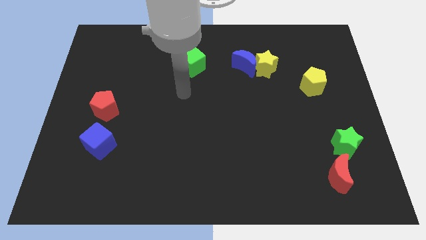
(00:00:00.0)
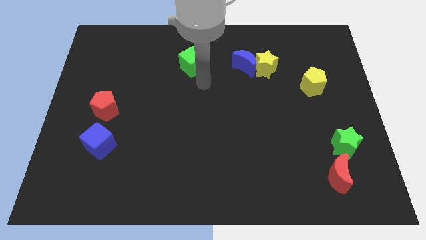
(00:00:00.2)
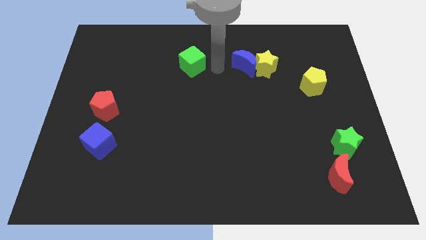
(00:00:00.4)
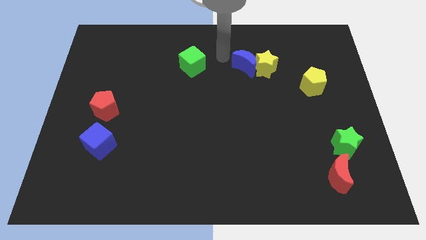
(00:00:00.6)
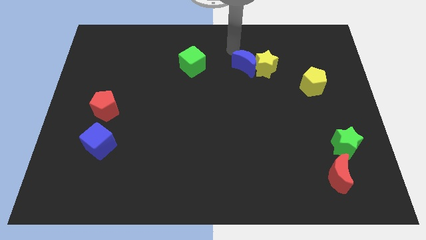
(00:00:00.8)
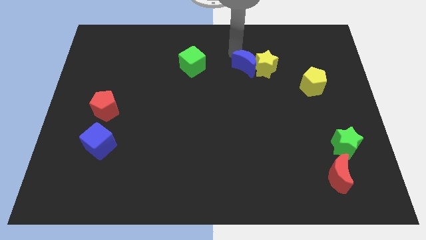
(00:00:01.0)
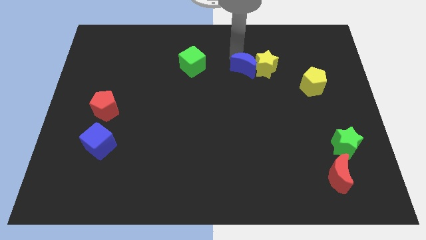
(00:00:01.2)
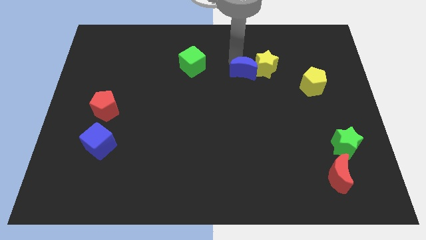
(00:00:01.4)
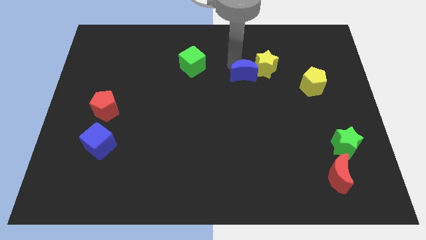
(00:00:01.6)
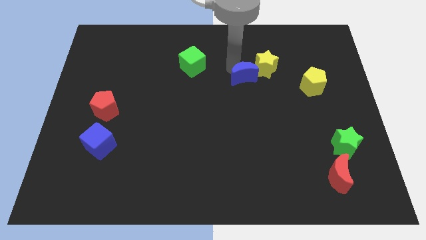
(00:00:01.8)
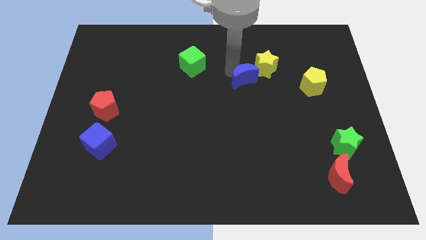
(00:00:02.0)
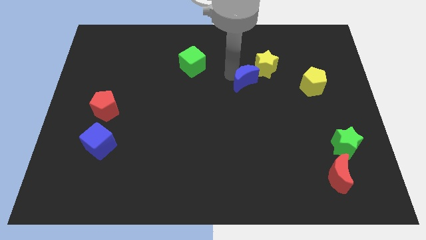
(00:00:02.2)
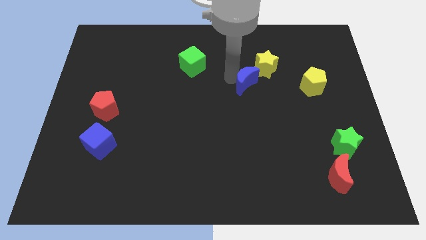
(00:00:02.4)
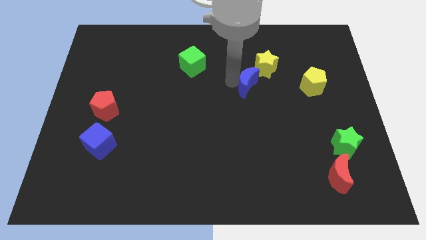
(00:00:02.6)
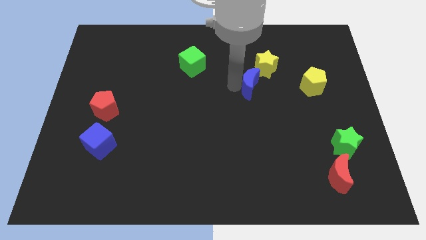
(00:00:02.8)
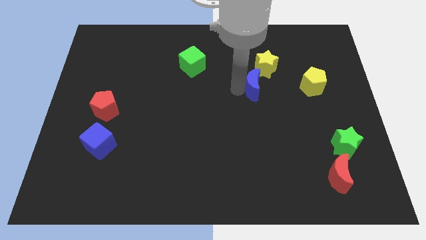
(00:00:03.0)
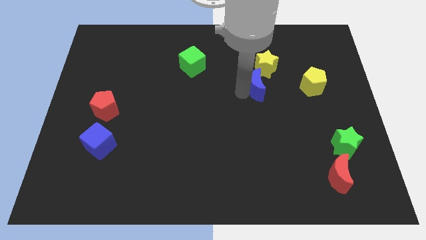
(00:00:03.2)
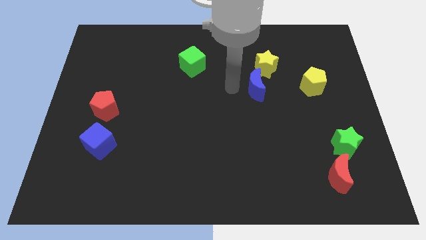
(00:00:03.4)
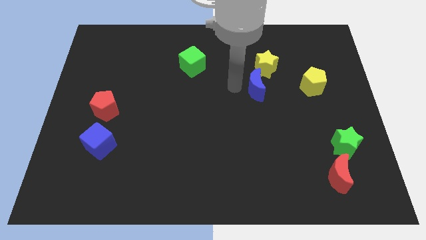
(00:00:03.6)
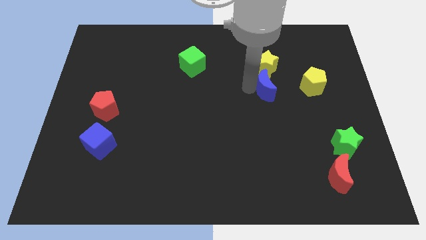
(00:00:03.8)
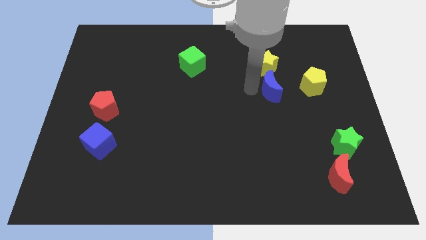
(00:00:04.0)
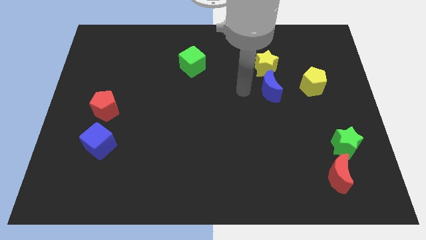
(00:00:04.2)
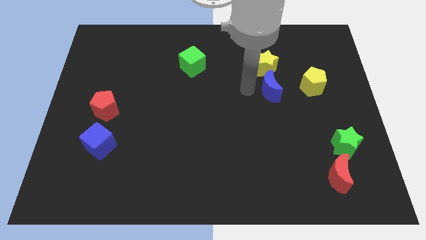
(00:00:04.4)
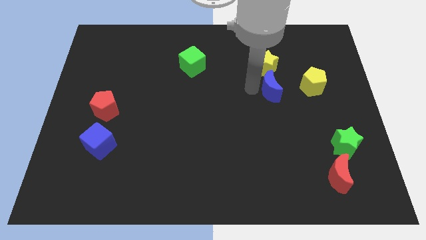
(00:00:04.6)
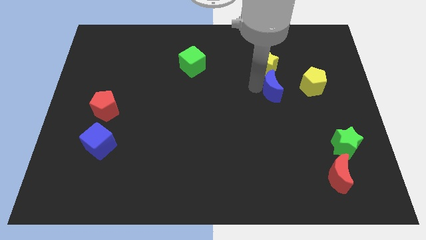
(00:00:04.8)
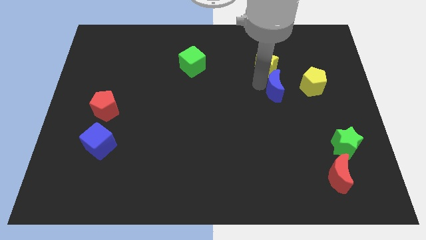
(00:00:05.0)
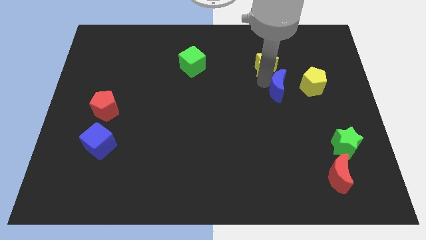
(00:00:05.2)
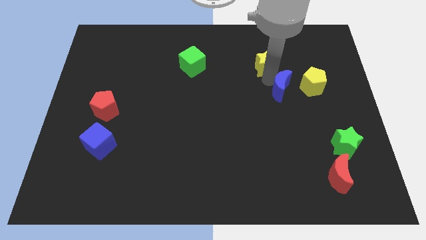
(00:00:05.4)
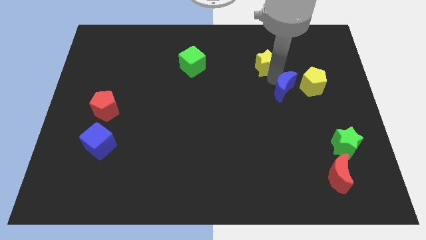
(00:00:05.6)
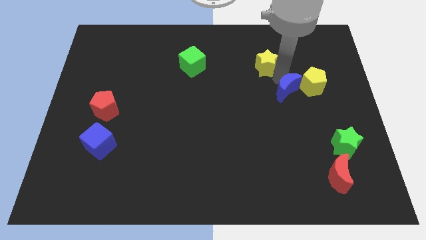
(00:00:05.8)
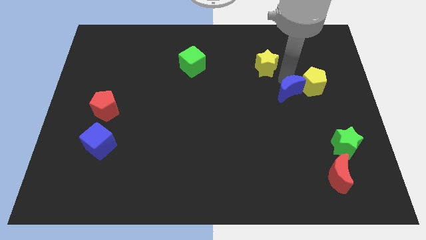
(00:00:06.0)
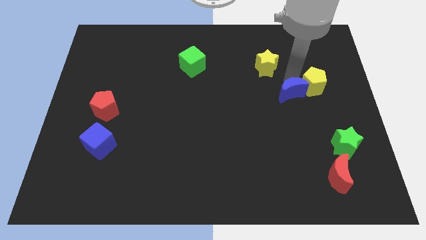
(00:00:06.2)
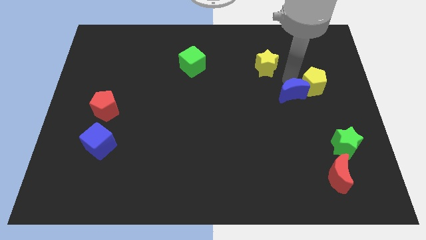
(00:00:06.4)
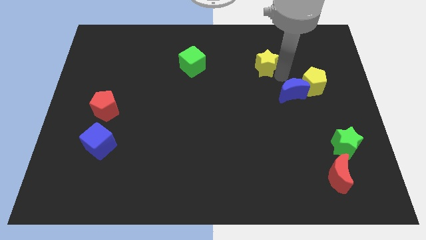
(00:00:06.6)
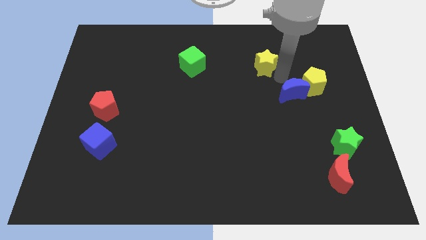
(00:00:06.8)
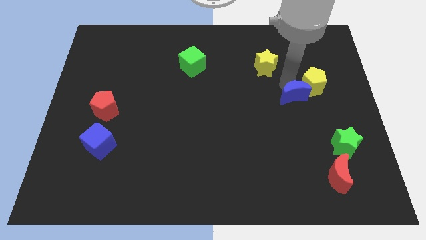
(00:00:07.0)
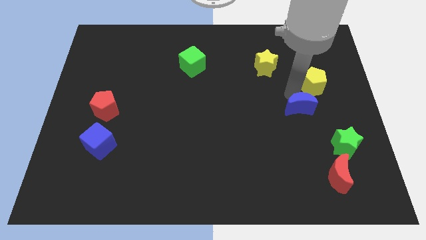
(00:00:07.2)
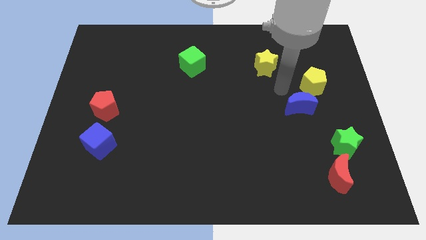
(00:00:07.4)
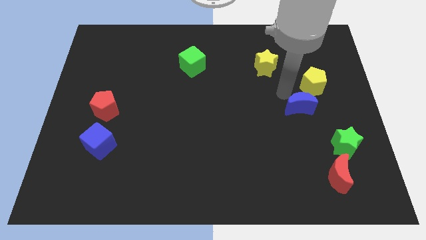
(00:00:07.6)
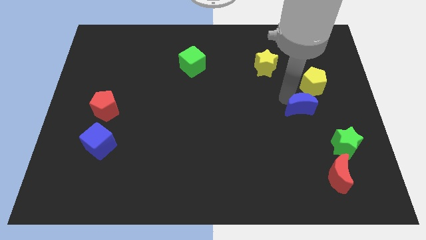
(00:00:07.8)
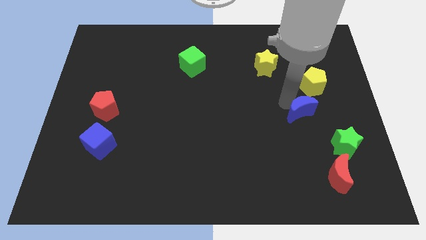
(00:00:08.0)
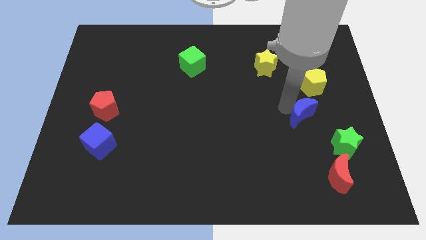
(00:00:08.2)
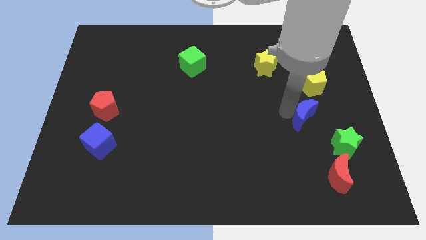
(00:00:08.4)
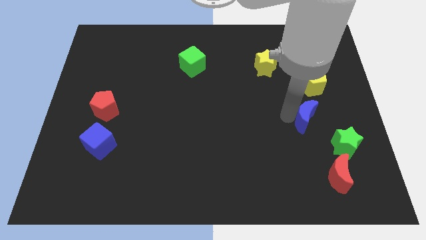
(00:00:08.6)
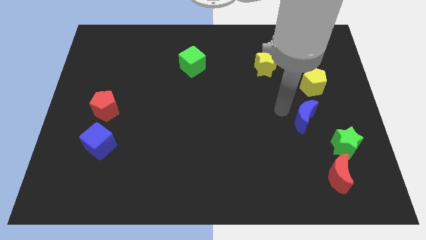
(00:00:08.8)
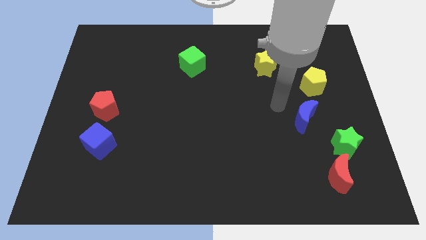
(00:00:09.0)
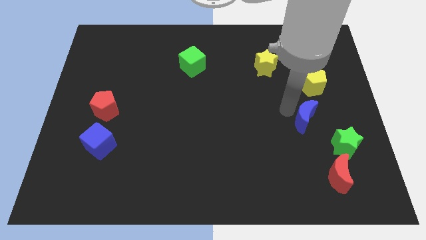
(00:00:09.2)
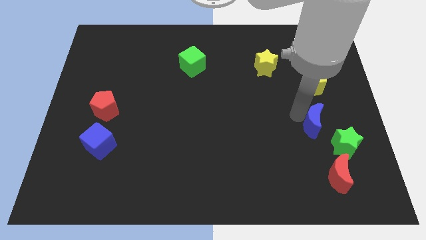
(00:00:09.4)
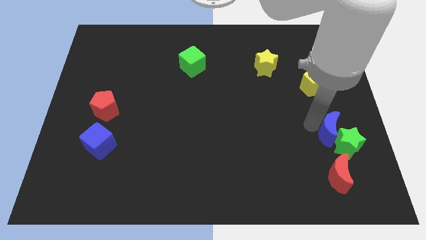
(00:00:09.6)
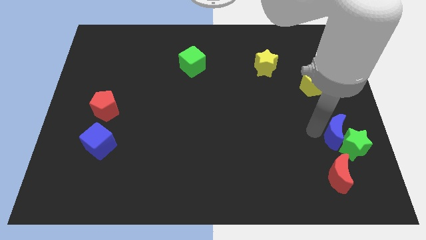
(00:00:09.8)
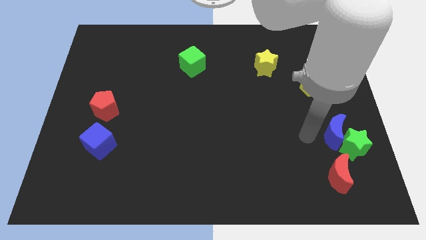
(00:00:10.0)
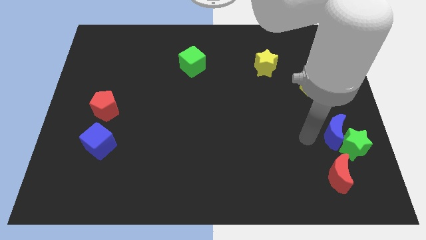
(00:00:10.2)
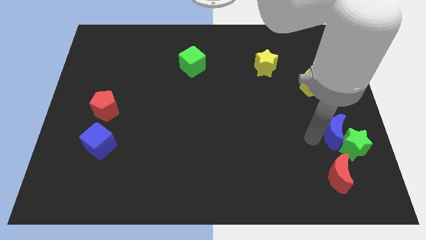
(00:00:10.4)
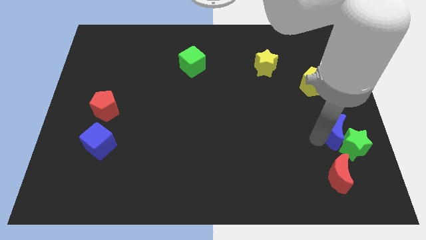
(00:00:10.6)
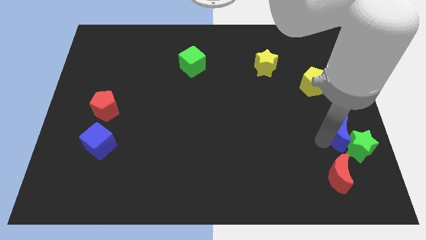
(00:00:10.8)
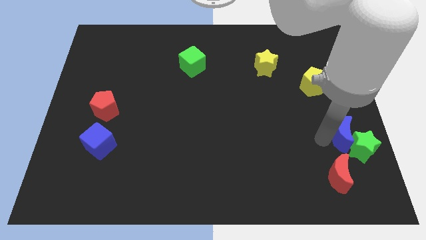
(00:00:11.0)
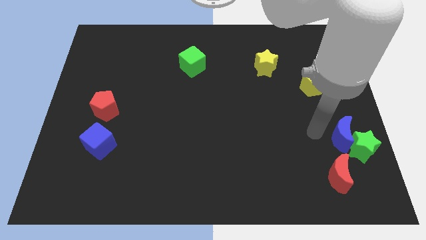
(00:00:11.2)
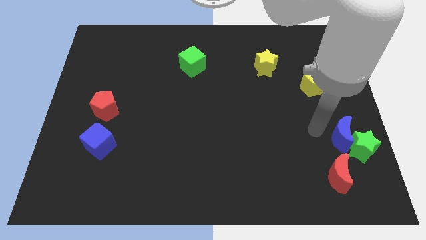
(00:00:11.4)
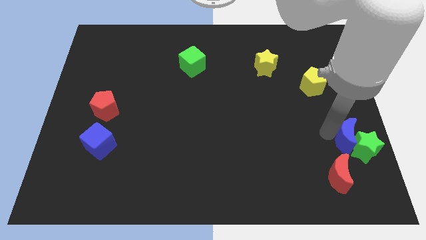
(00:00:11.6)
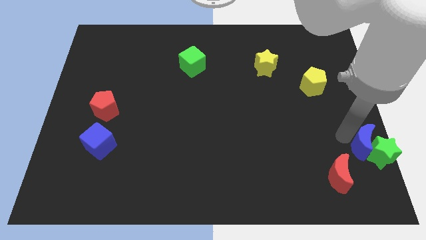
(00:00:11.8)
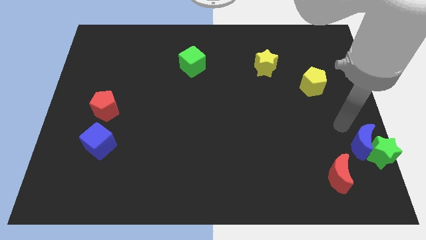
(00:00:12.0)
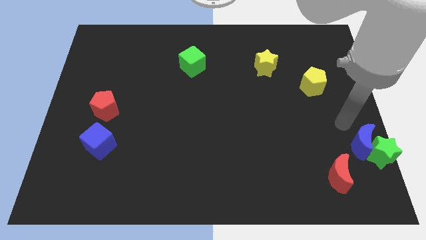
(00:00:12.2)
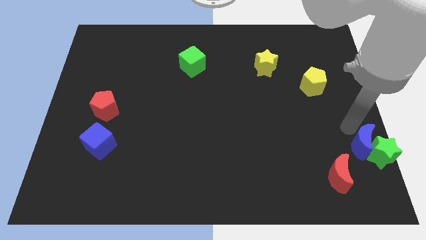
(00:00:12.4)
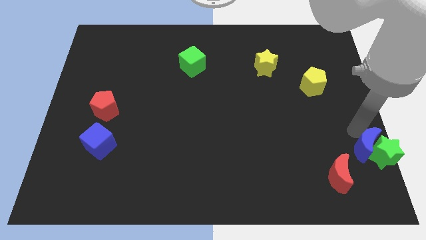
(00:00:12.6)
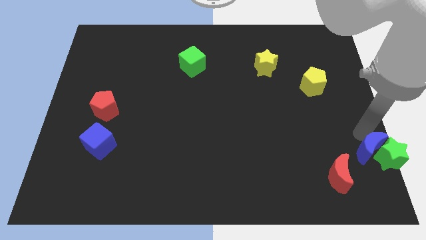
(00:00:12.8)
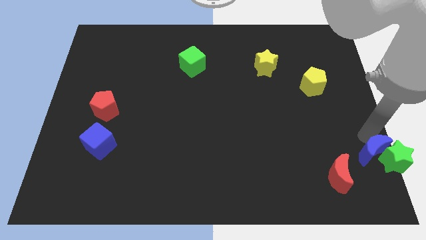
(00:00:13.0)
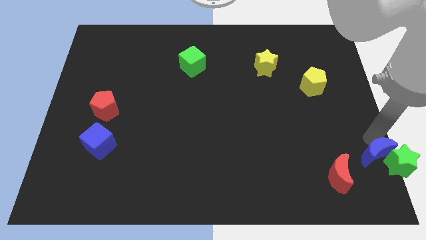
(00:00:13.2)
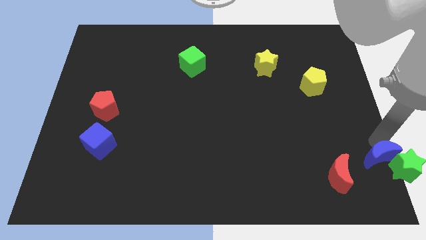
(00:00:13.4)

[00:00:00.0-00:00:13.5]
slide the blue moon to the bottom right of the board
